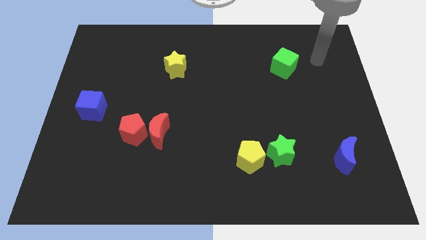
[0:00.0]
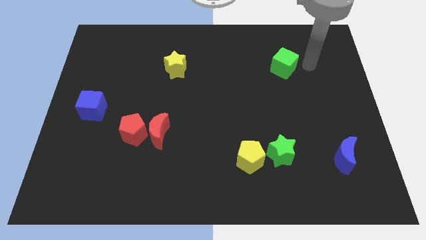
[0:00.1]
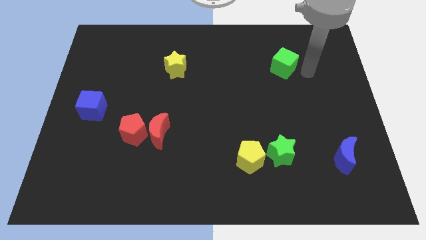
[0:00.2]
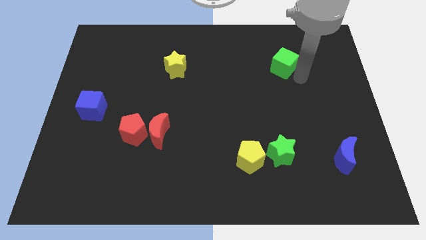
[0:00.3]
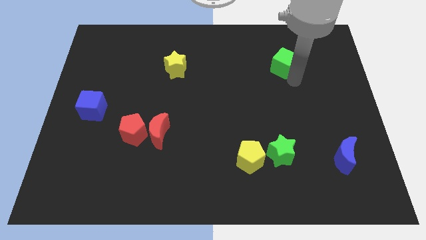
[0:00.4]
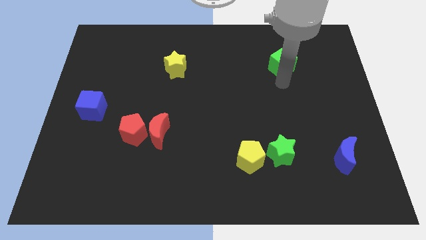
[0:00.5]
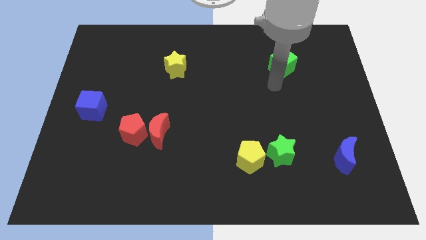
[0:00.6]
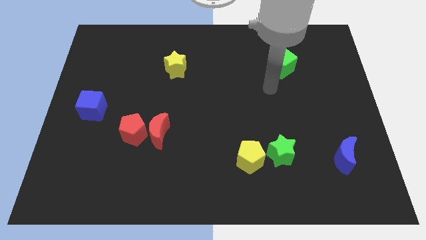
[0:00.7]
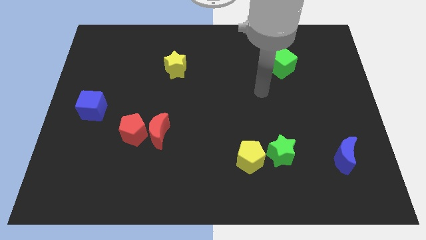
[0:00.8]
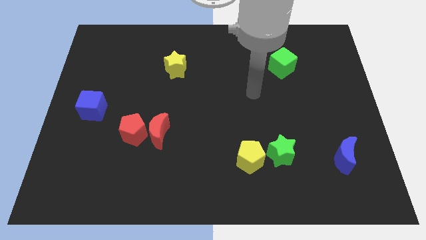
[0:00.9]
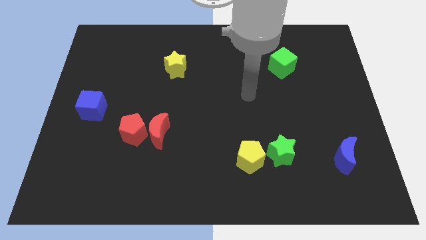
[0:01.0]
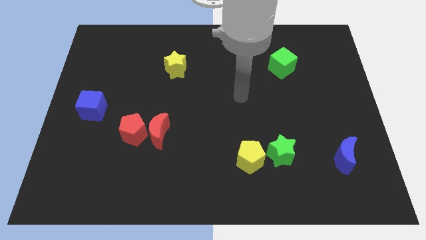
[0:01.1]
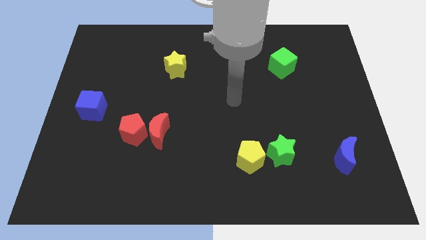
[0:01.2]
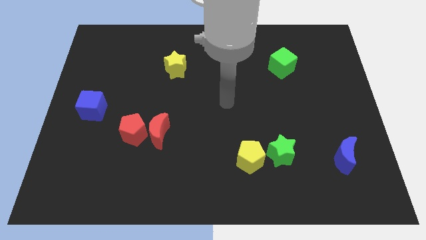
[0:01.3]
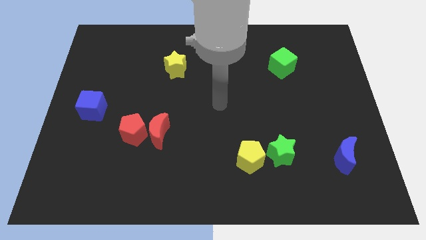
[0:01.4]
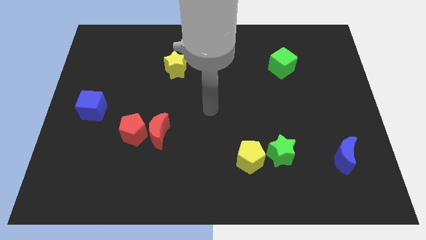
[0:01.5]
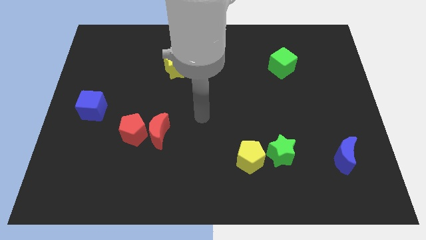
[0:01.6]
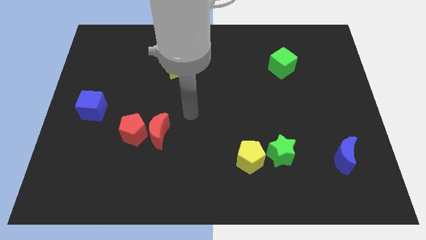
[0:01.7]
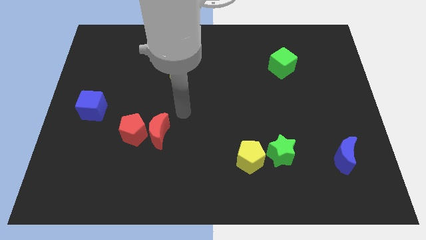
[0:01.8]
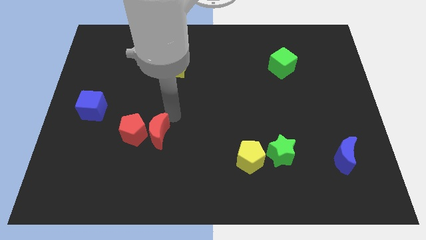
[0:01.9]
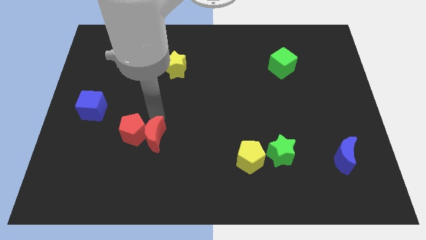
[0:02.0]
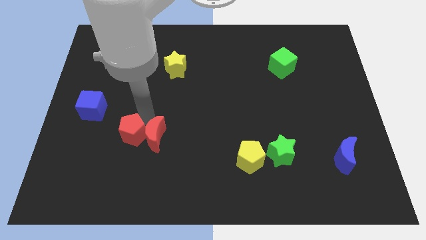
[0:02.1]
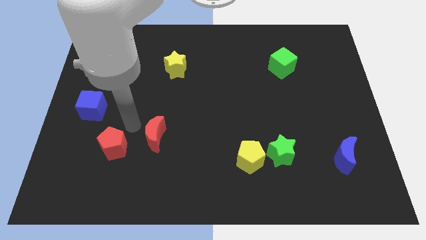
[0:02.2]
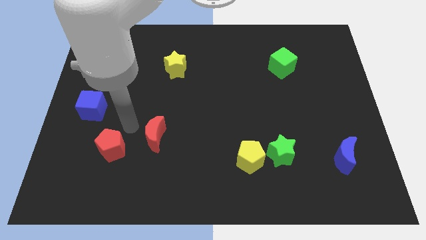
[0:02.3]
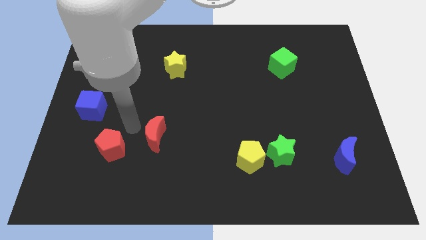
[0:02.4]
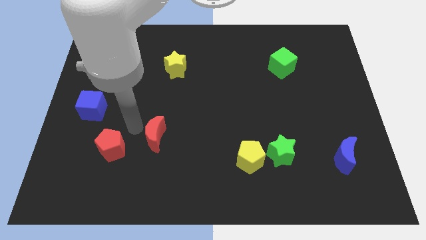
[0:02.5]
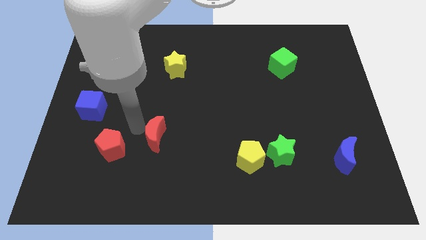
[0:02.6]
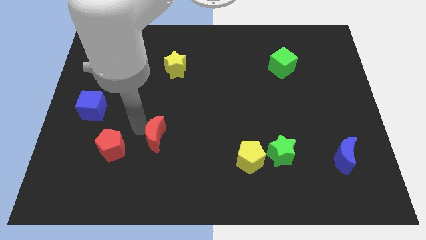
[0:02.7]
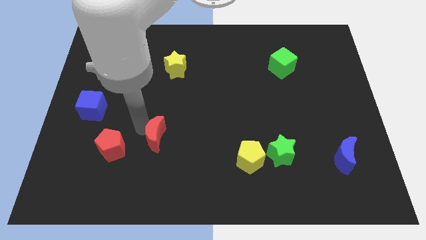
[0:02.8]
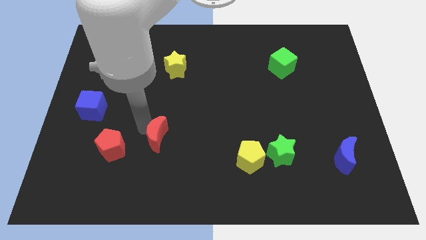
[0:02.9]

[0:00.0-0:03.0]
pull the red moon apart from the red pentagon

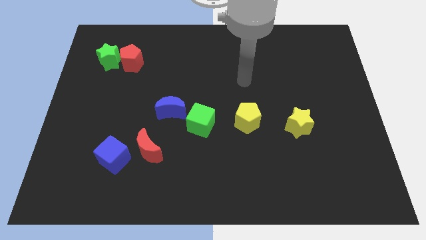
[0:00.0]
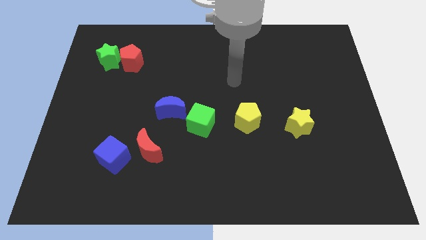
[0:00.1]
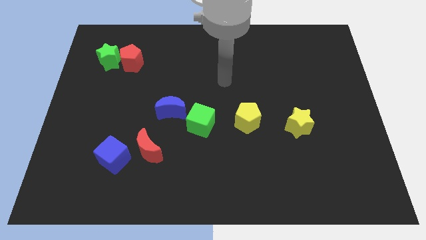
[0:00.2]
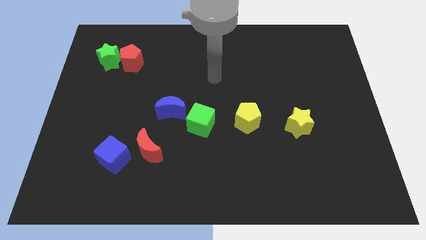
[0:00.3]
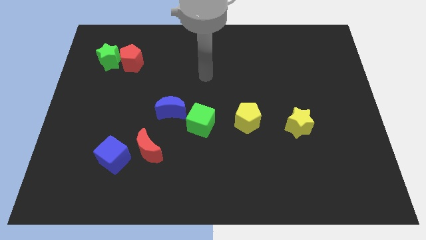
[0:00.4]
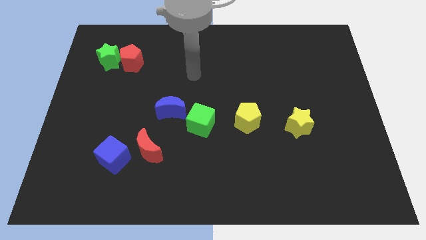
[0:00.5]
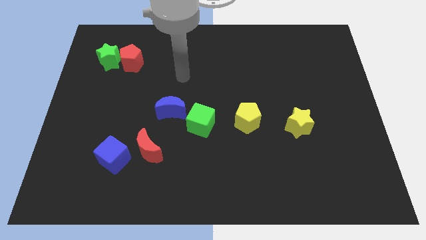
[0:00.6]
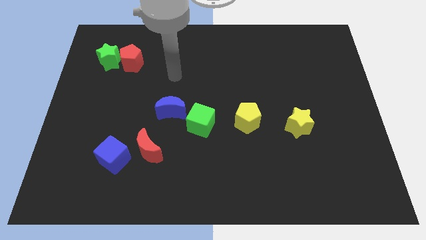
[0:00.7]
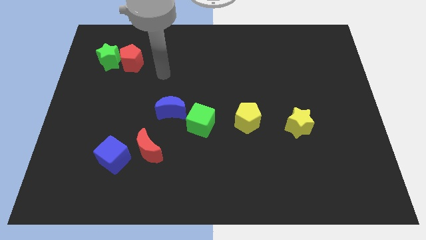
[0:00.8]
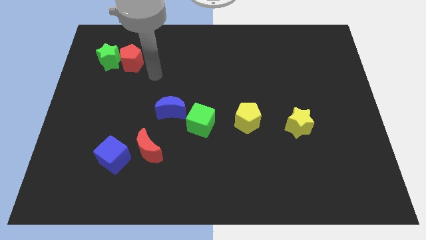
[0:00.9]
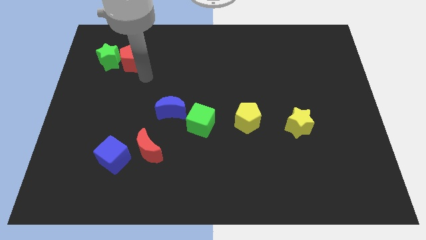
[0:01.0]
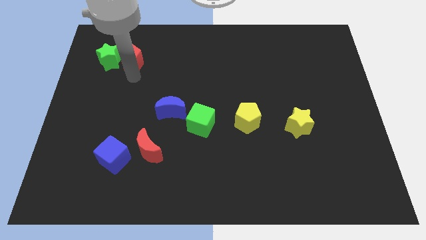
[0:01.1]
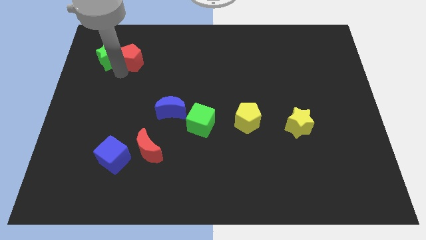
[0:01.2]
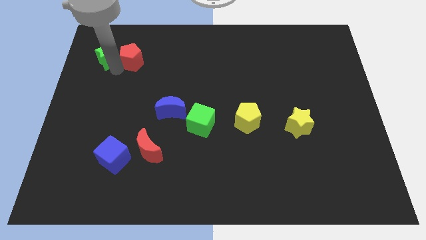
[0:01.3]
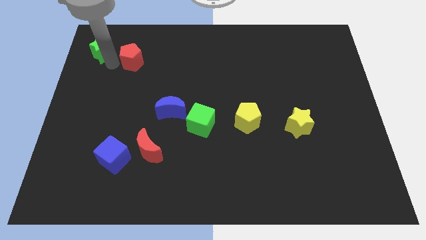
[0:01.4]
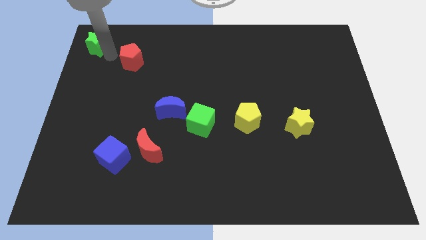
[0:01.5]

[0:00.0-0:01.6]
pull the red pentagon apart from the green star

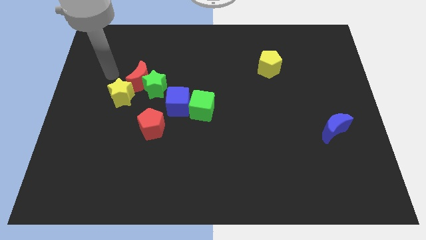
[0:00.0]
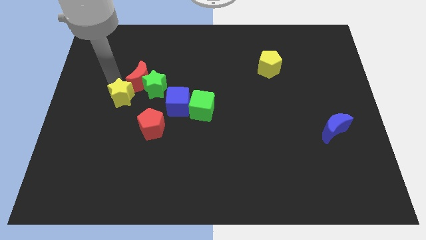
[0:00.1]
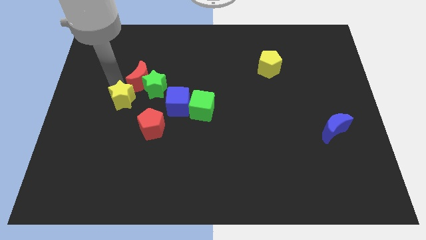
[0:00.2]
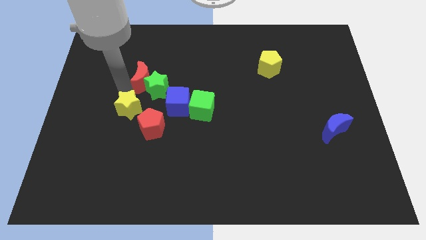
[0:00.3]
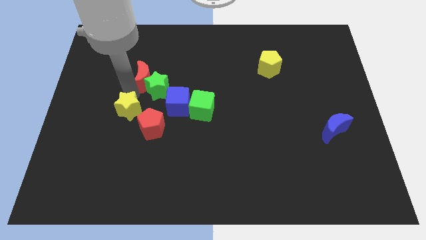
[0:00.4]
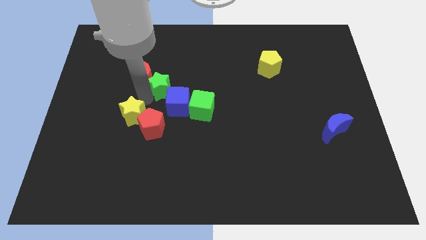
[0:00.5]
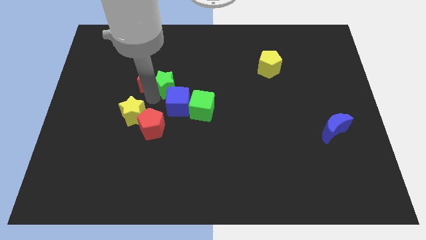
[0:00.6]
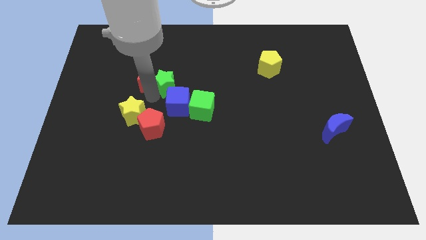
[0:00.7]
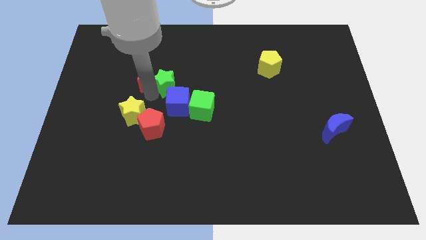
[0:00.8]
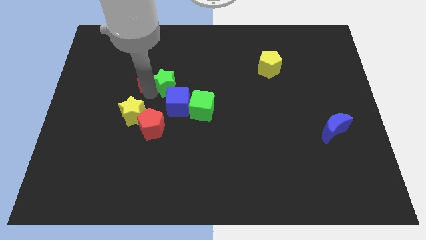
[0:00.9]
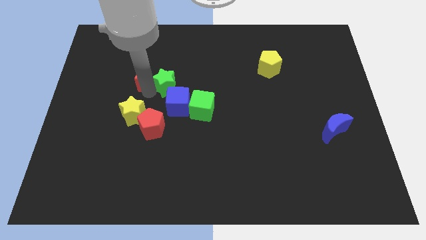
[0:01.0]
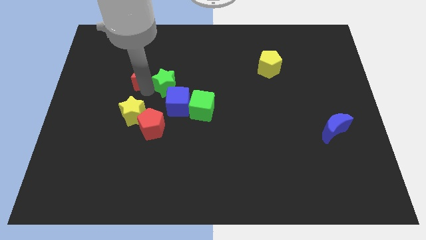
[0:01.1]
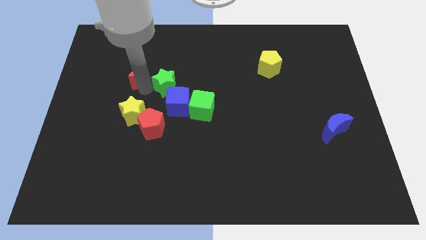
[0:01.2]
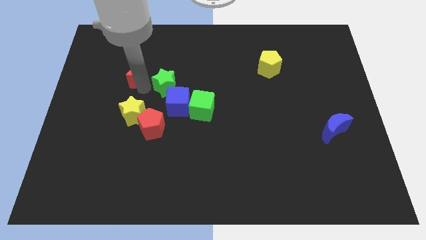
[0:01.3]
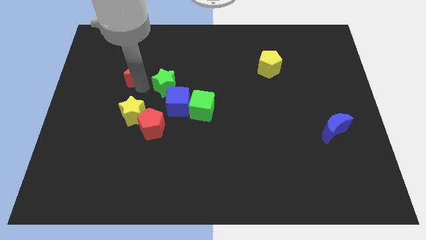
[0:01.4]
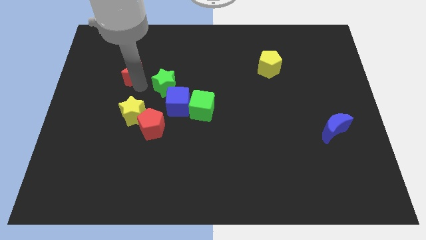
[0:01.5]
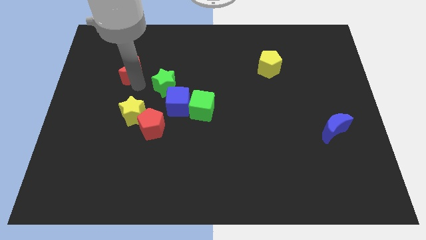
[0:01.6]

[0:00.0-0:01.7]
separate the red moon from the green star and yellow star

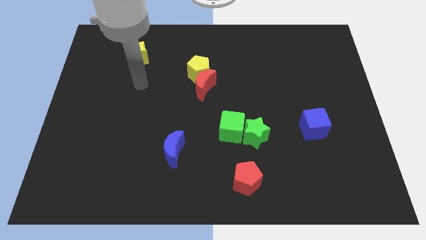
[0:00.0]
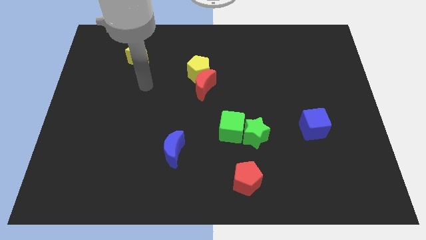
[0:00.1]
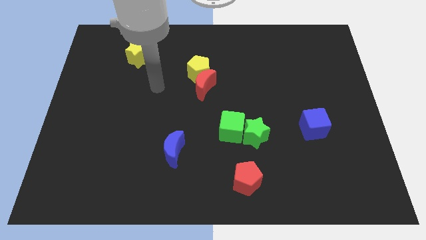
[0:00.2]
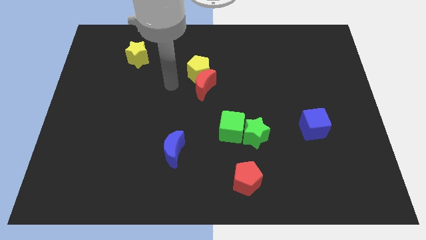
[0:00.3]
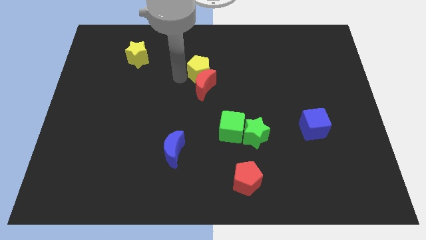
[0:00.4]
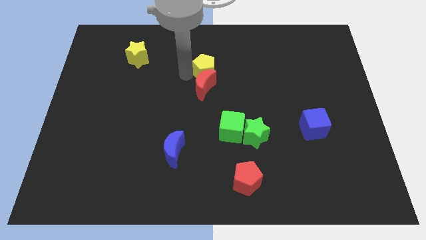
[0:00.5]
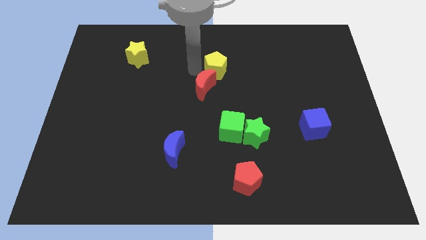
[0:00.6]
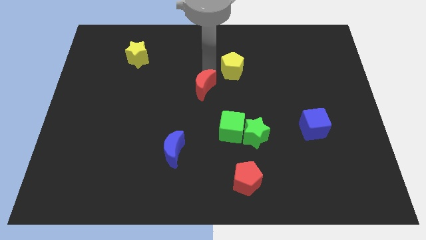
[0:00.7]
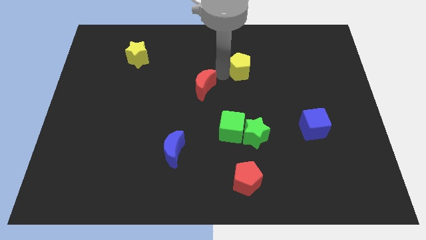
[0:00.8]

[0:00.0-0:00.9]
separate the red moon from the yellow pentagon

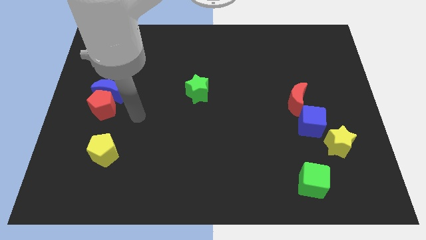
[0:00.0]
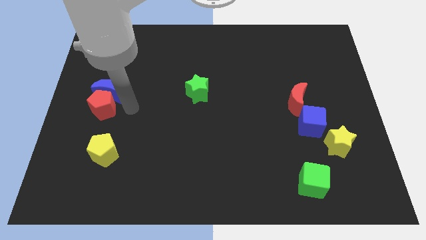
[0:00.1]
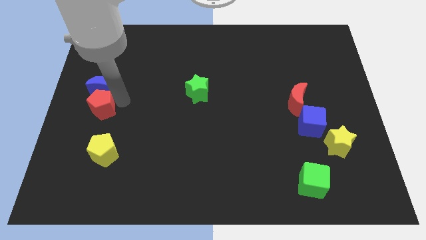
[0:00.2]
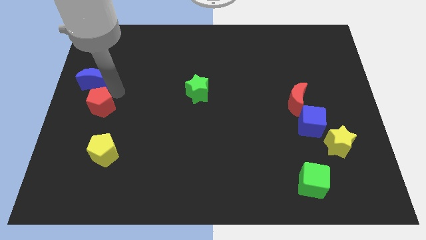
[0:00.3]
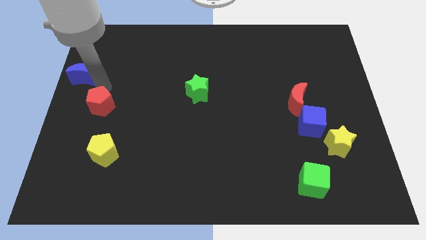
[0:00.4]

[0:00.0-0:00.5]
separate the red pentagon from the blue moon

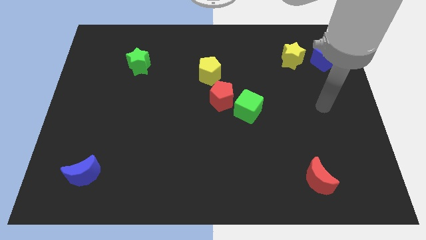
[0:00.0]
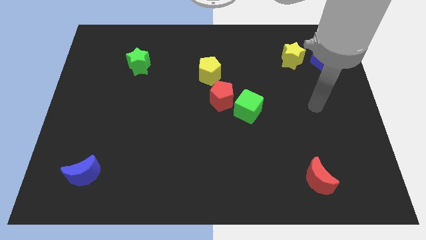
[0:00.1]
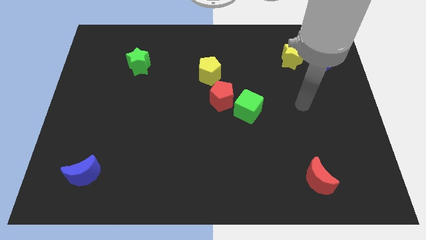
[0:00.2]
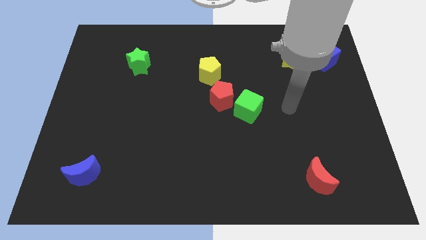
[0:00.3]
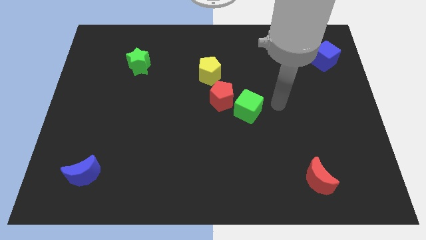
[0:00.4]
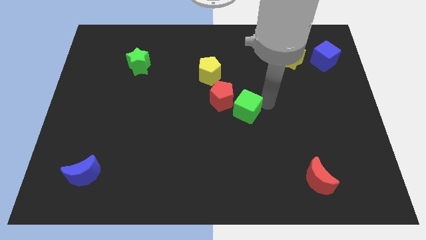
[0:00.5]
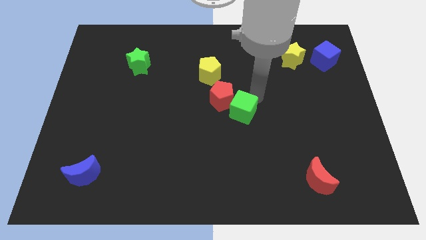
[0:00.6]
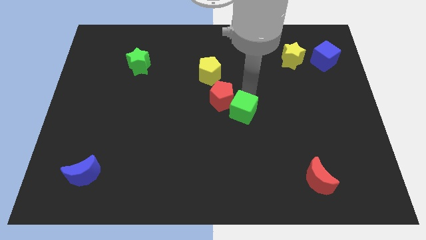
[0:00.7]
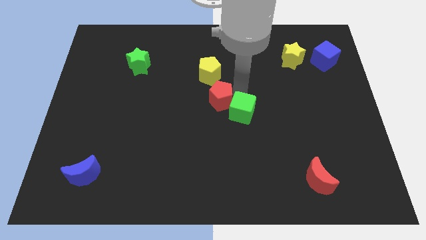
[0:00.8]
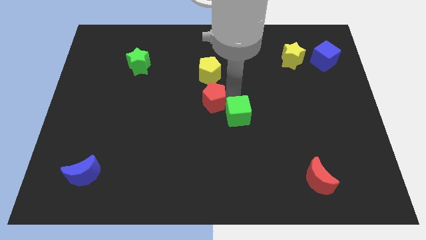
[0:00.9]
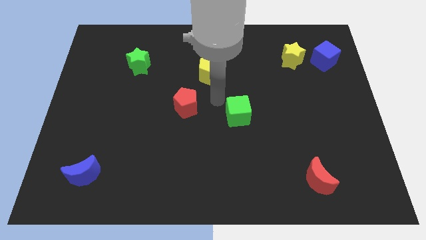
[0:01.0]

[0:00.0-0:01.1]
move the green cube away from the red pentagon

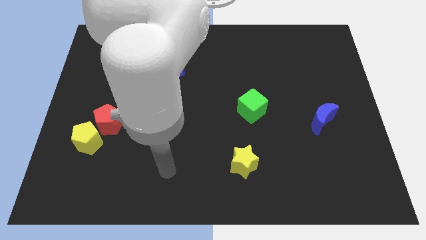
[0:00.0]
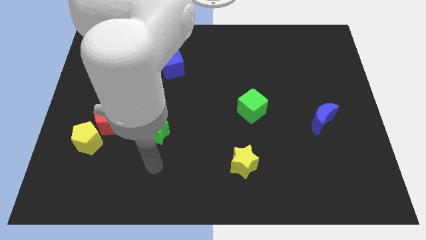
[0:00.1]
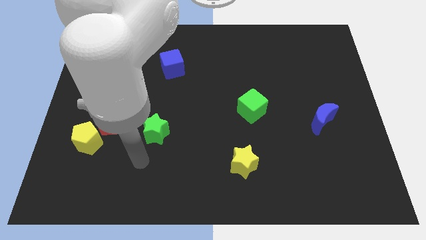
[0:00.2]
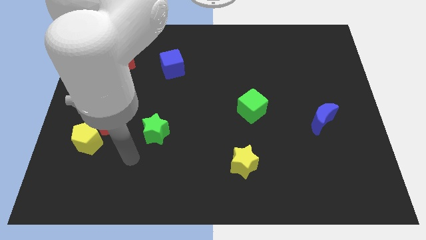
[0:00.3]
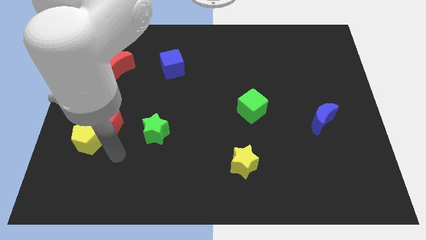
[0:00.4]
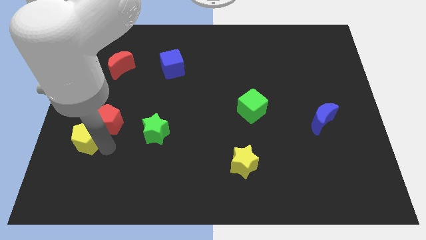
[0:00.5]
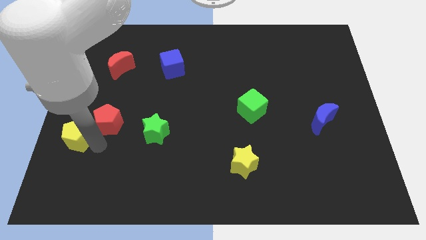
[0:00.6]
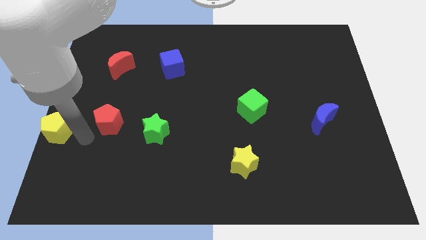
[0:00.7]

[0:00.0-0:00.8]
pull the red pentagon apart from the yellow pentagon
